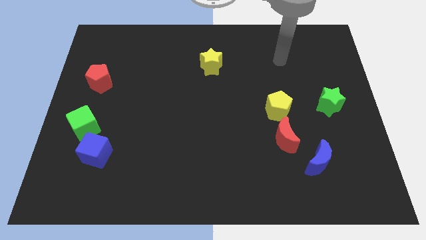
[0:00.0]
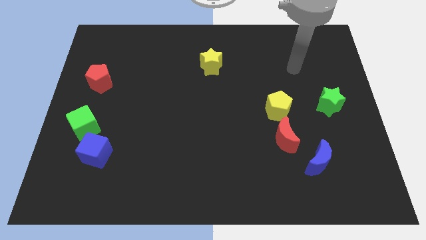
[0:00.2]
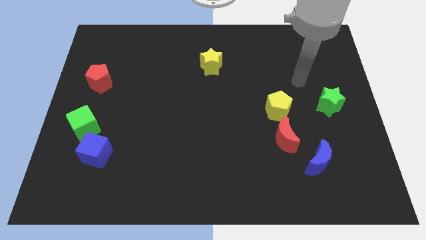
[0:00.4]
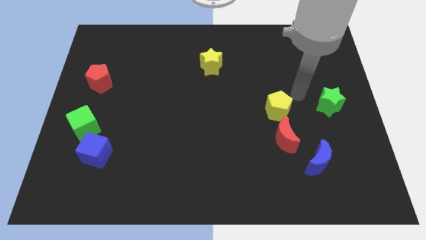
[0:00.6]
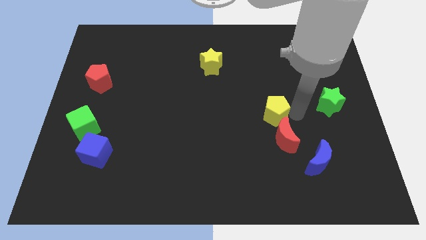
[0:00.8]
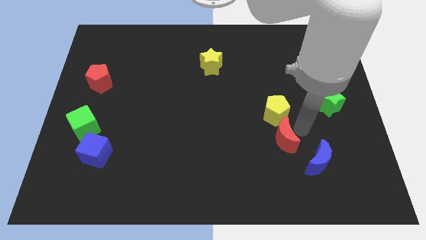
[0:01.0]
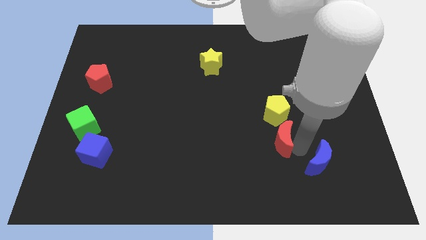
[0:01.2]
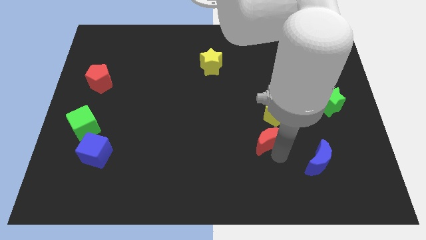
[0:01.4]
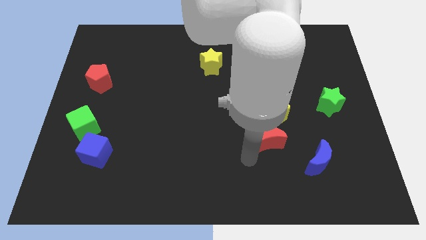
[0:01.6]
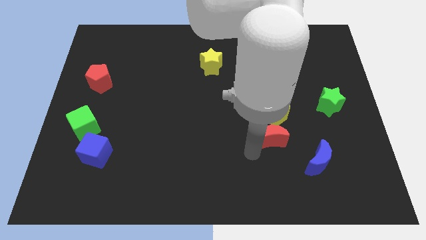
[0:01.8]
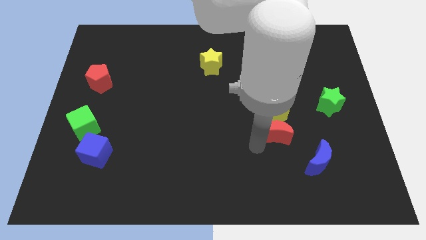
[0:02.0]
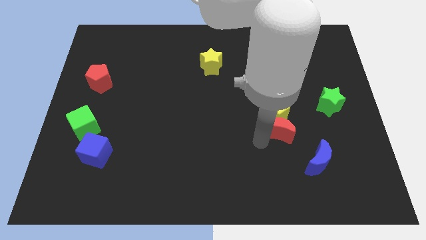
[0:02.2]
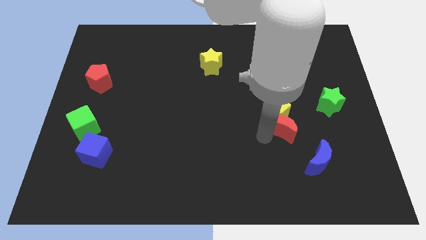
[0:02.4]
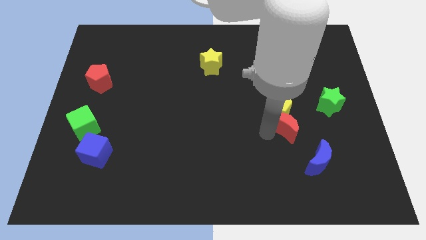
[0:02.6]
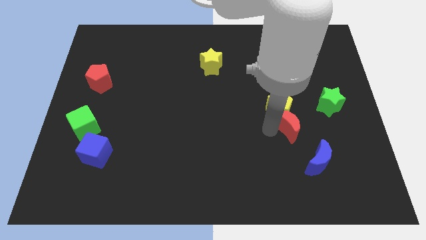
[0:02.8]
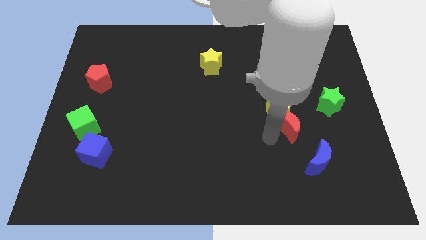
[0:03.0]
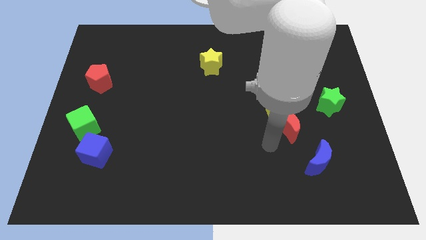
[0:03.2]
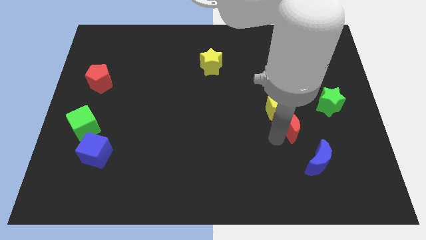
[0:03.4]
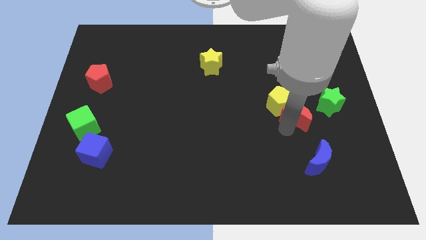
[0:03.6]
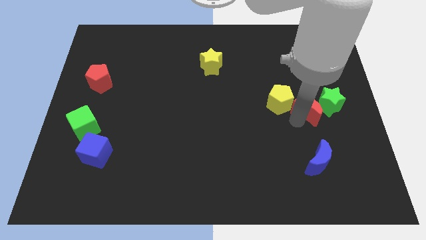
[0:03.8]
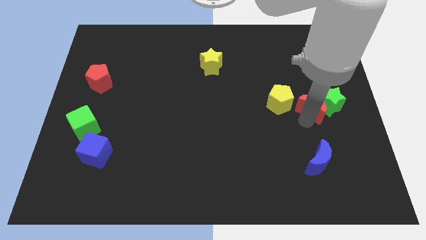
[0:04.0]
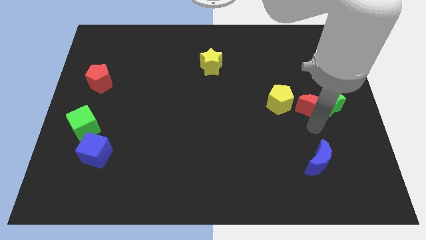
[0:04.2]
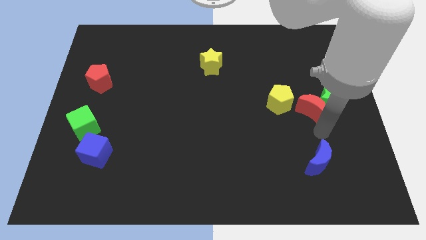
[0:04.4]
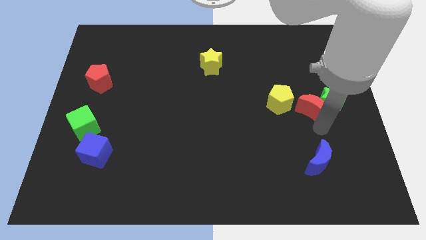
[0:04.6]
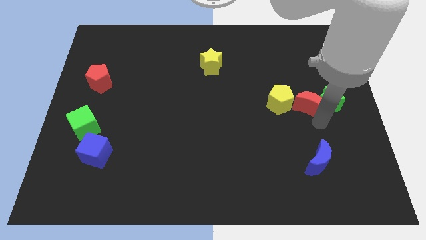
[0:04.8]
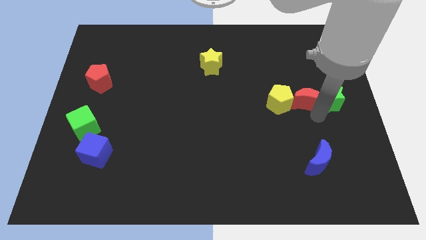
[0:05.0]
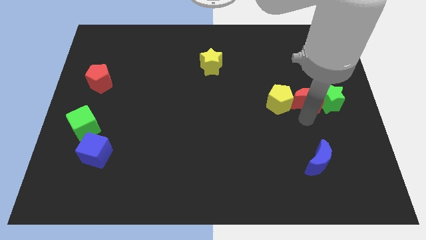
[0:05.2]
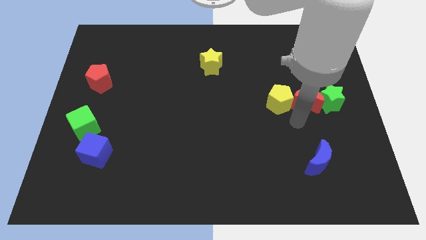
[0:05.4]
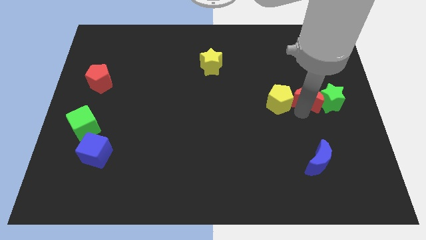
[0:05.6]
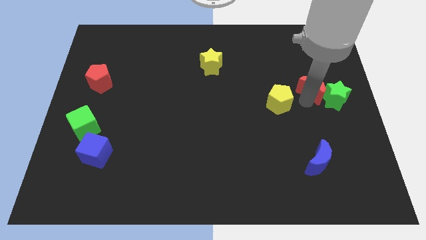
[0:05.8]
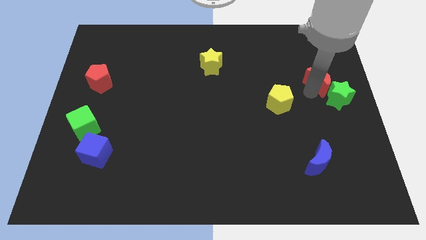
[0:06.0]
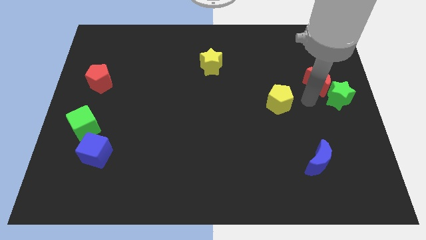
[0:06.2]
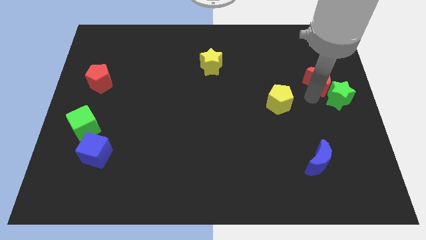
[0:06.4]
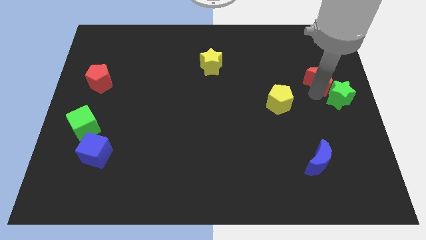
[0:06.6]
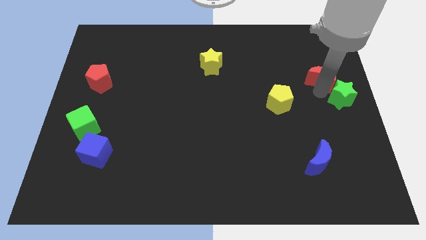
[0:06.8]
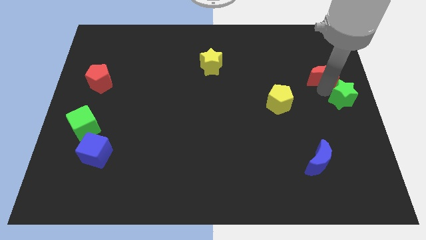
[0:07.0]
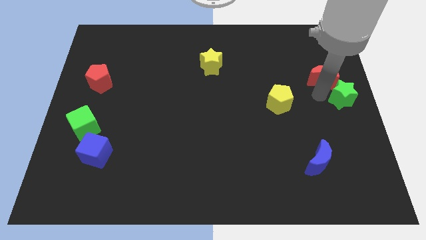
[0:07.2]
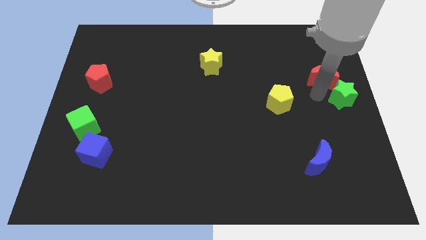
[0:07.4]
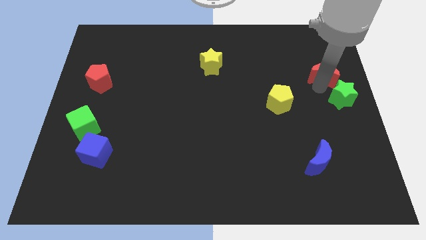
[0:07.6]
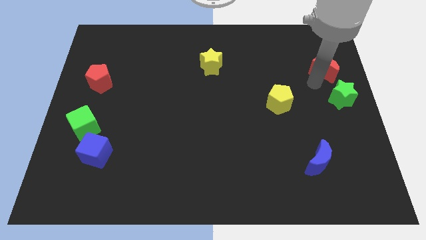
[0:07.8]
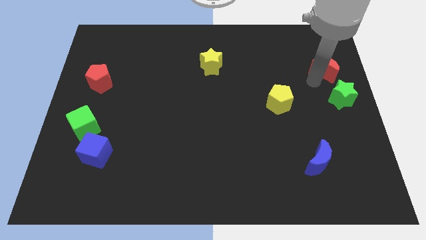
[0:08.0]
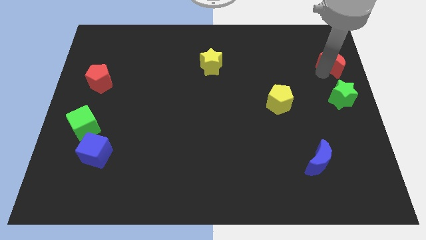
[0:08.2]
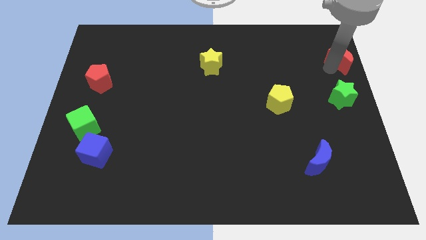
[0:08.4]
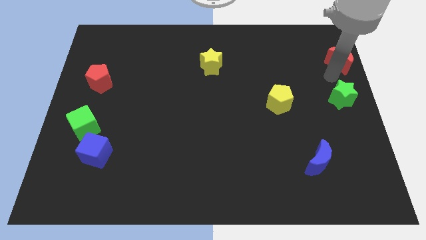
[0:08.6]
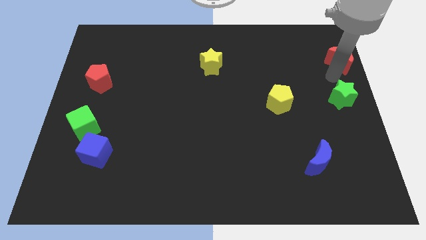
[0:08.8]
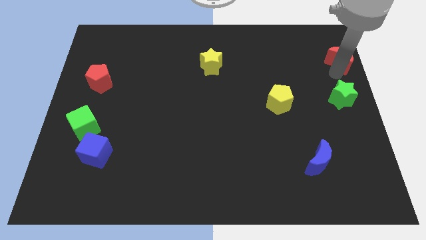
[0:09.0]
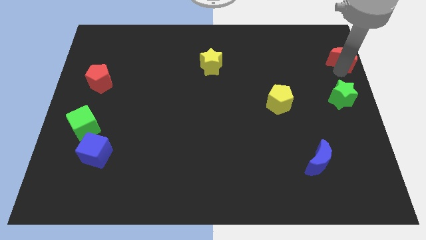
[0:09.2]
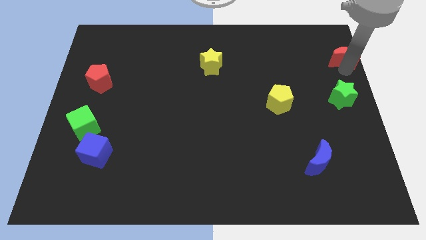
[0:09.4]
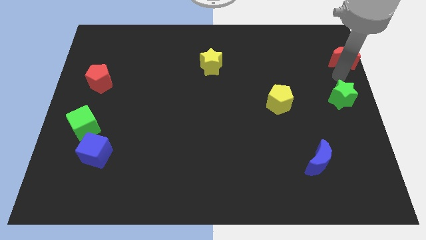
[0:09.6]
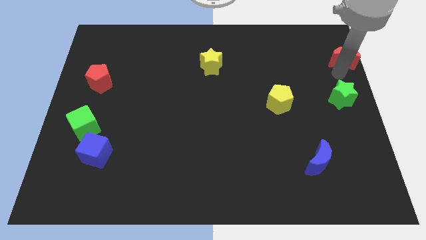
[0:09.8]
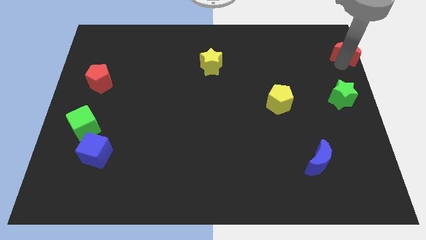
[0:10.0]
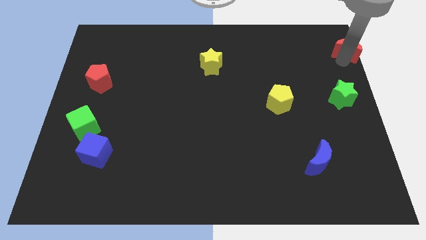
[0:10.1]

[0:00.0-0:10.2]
put the red moon to the upper right corner
